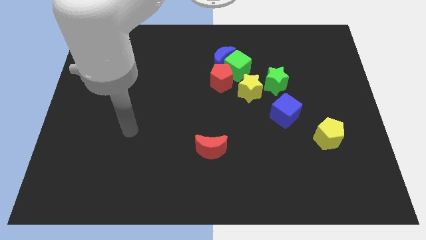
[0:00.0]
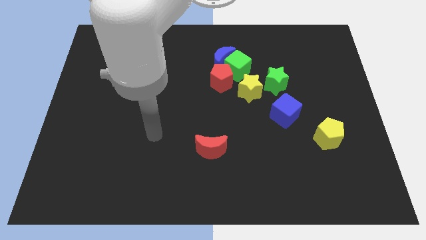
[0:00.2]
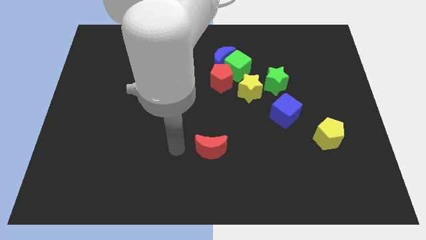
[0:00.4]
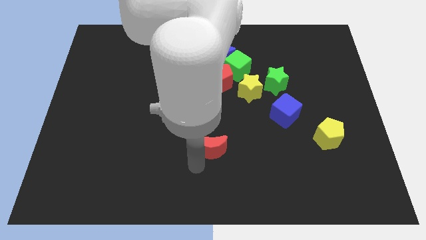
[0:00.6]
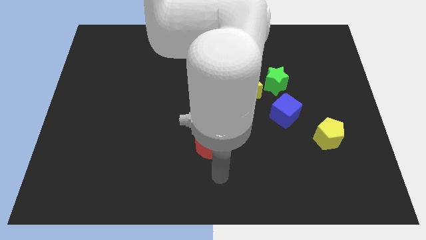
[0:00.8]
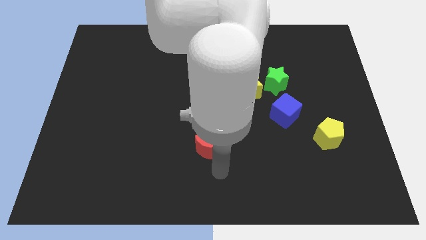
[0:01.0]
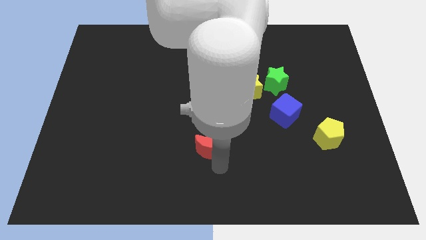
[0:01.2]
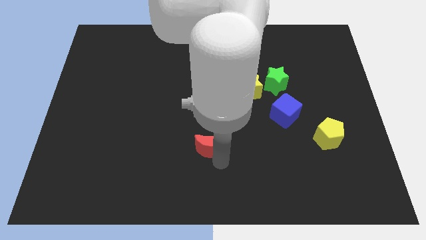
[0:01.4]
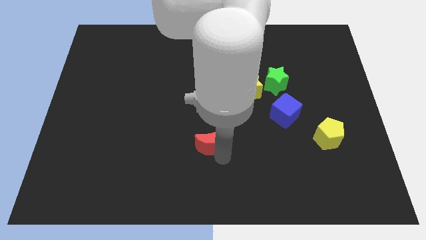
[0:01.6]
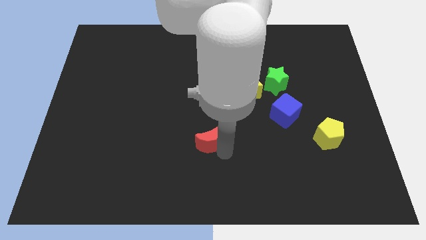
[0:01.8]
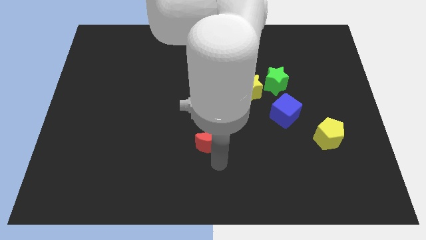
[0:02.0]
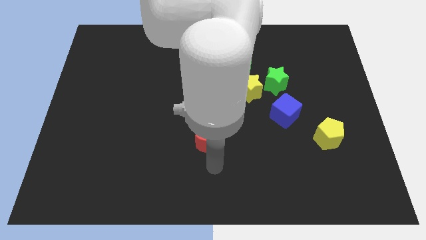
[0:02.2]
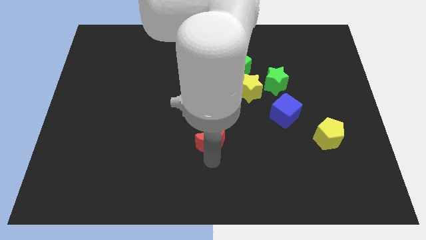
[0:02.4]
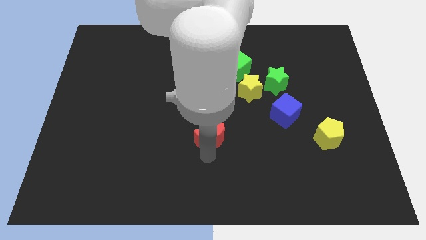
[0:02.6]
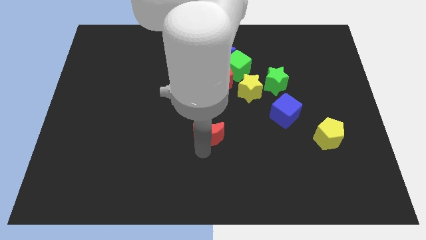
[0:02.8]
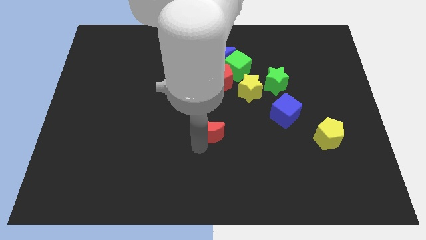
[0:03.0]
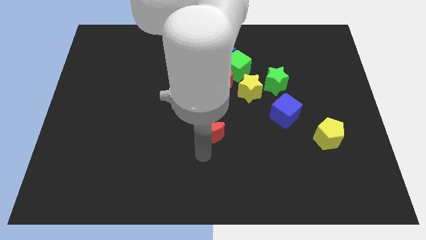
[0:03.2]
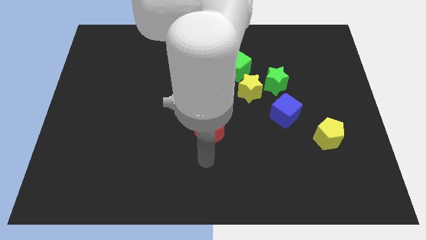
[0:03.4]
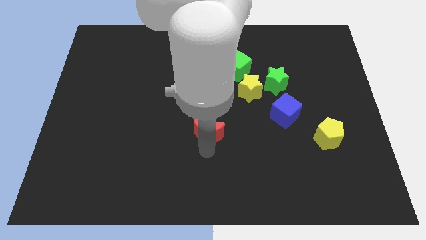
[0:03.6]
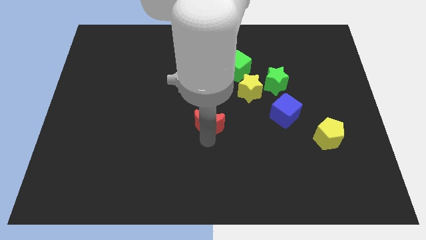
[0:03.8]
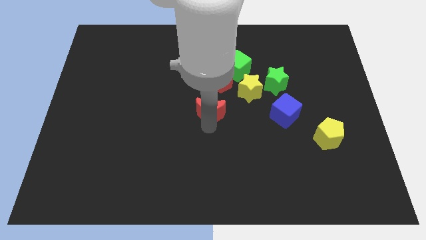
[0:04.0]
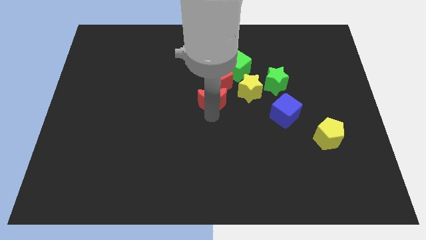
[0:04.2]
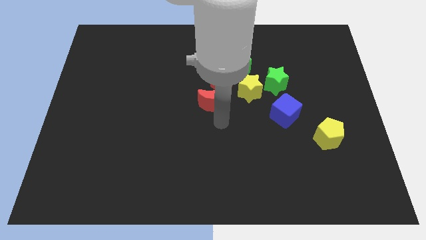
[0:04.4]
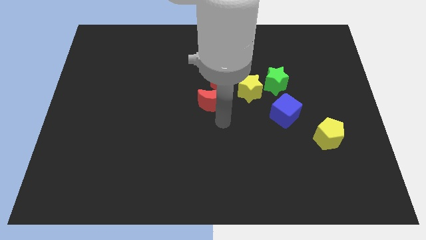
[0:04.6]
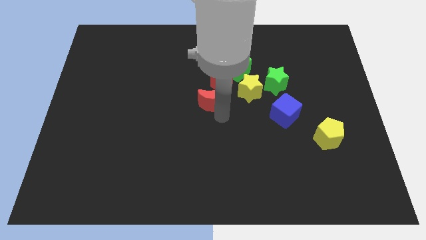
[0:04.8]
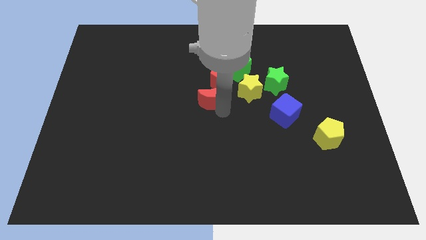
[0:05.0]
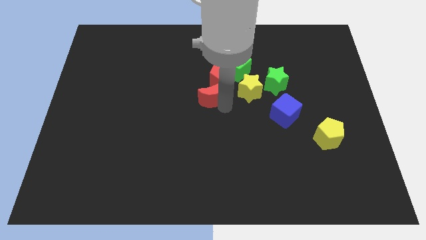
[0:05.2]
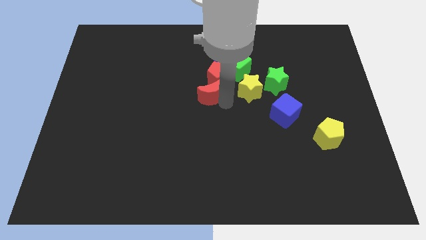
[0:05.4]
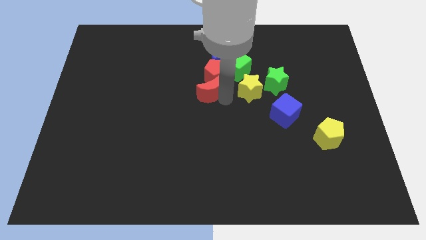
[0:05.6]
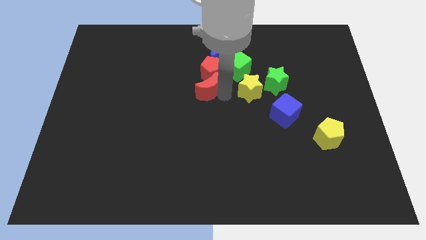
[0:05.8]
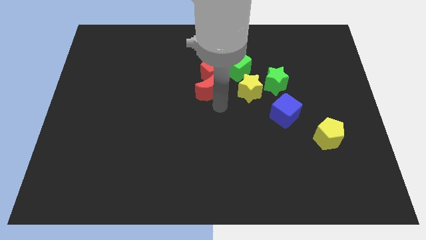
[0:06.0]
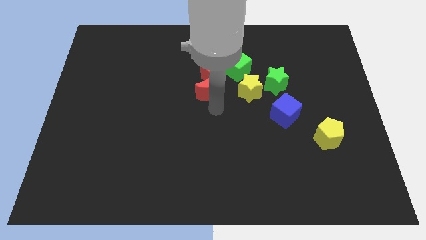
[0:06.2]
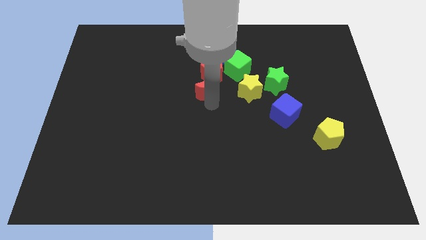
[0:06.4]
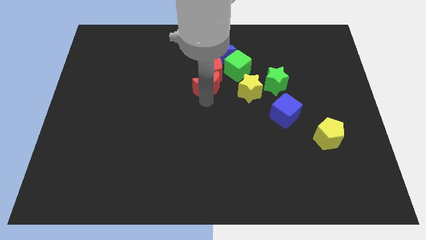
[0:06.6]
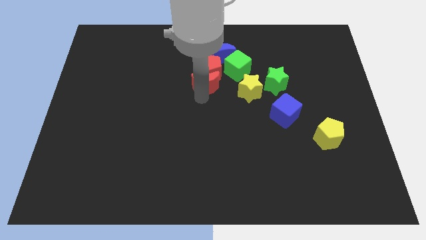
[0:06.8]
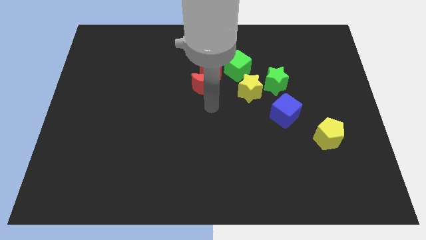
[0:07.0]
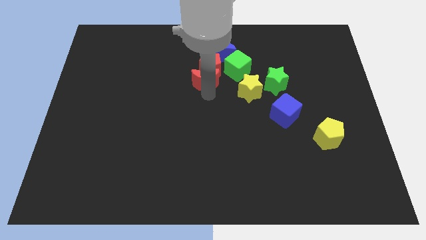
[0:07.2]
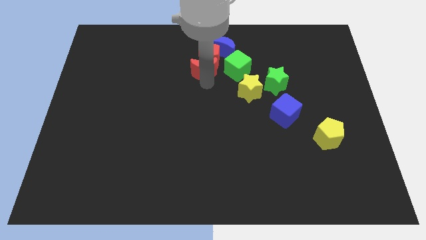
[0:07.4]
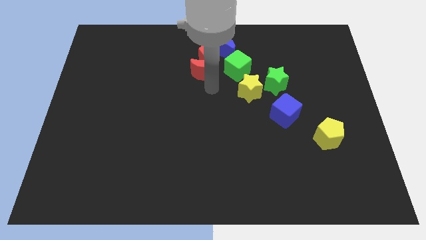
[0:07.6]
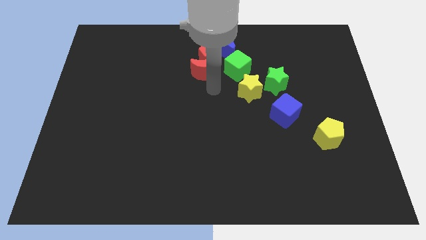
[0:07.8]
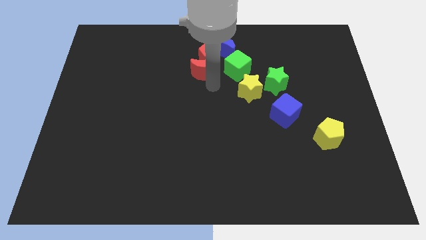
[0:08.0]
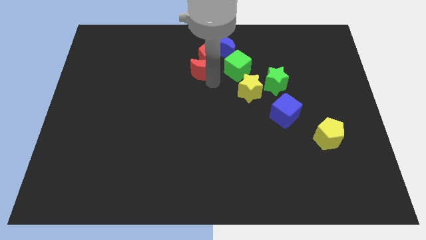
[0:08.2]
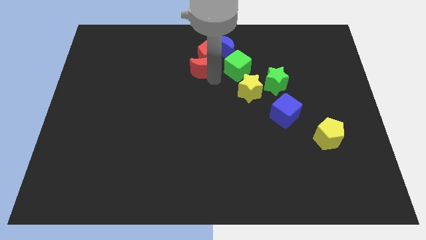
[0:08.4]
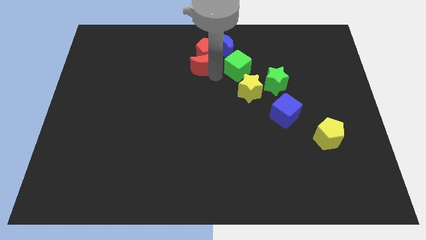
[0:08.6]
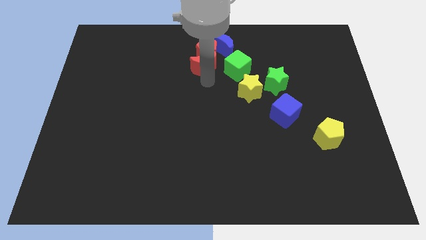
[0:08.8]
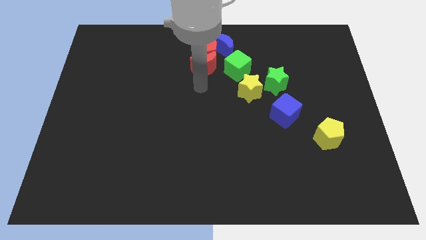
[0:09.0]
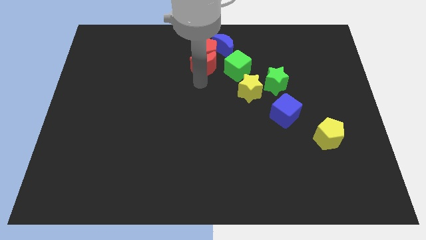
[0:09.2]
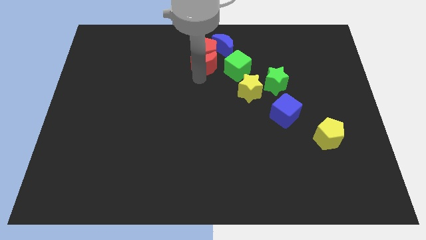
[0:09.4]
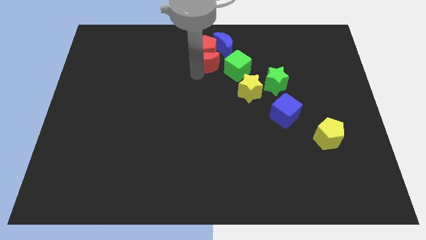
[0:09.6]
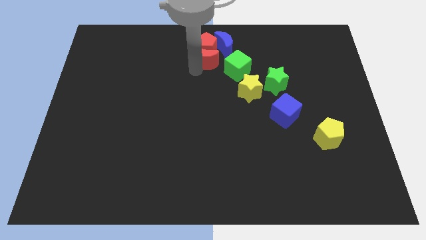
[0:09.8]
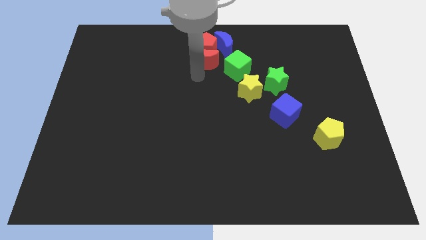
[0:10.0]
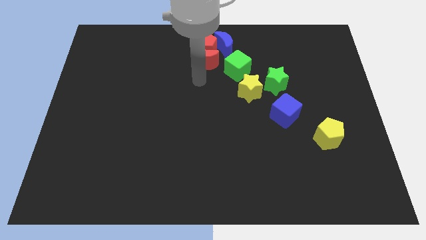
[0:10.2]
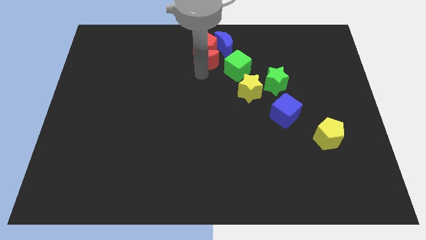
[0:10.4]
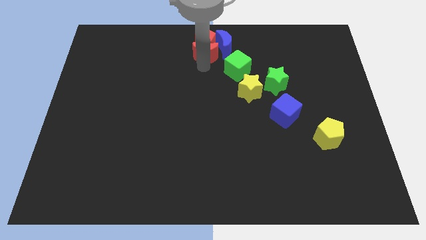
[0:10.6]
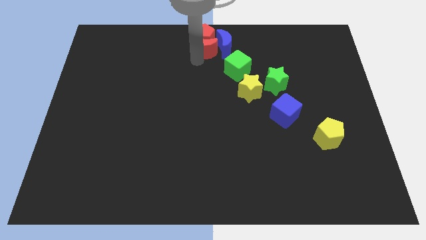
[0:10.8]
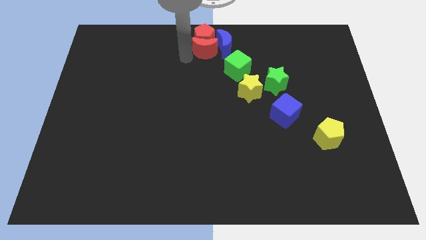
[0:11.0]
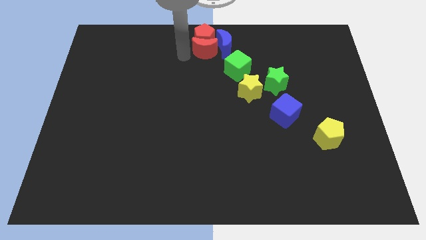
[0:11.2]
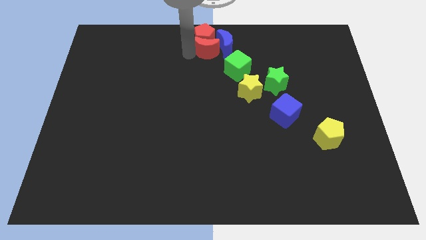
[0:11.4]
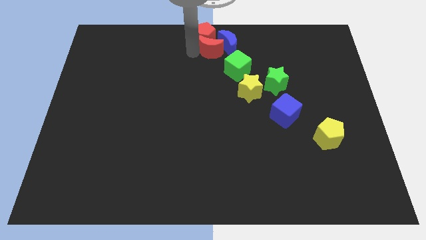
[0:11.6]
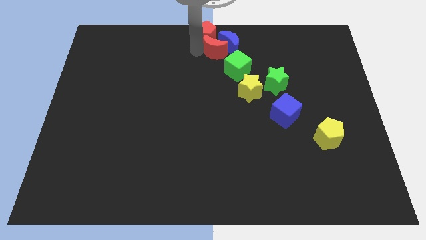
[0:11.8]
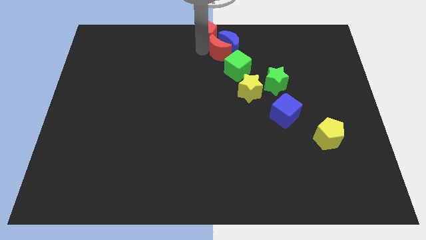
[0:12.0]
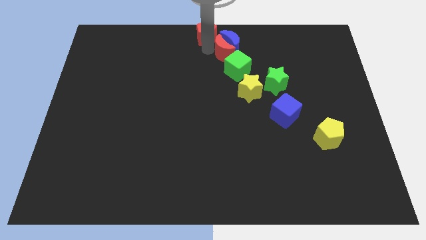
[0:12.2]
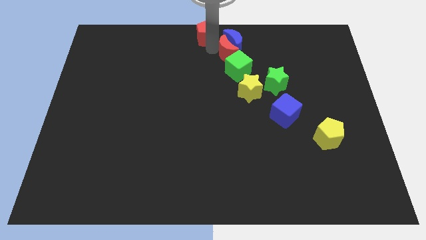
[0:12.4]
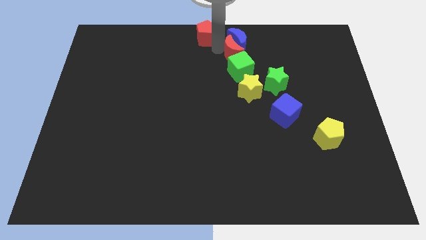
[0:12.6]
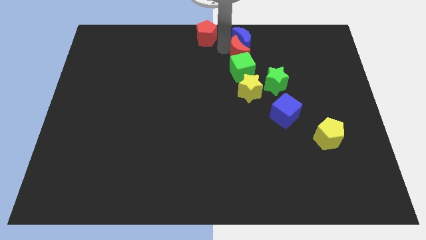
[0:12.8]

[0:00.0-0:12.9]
move the red moon to the top right of the green cube

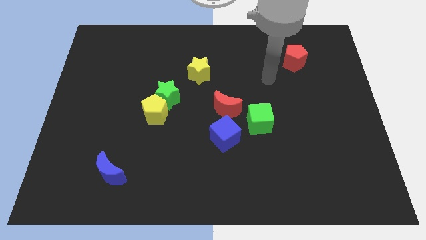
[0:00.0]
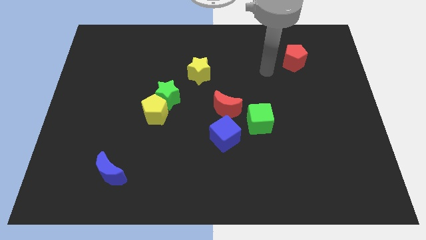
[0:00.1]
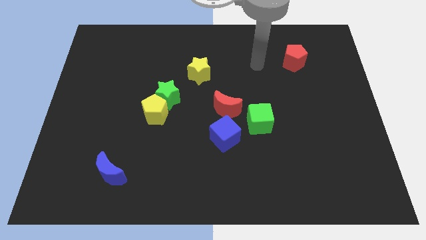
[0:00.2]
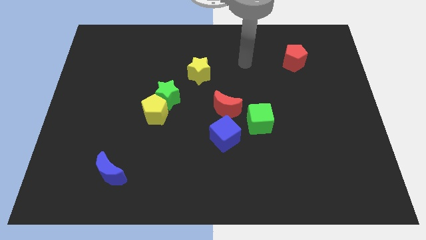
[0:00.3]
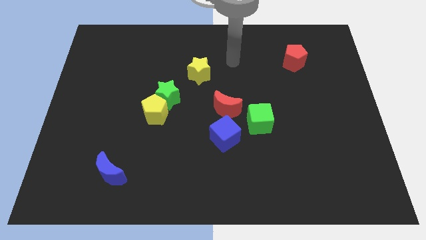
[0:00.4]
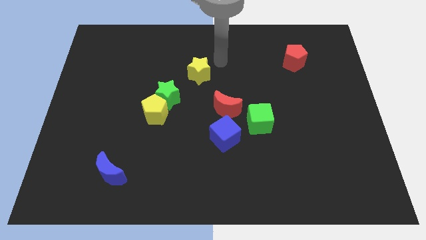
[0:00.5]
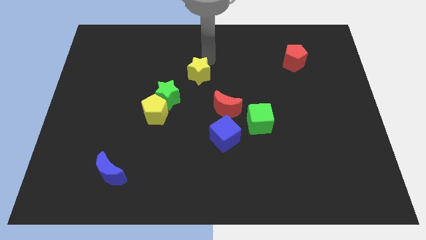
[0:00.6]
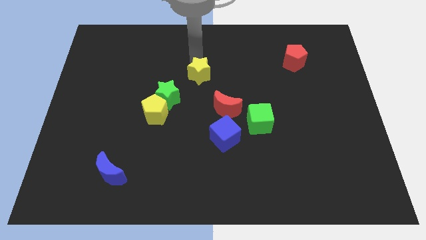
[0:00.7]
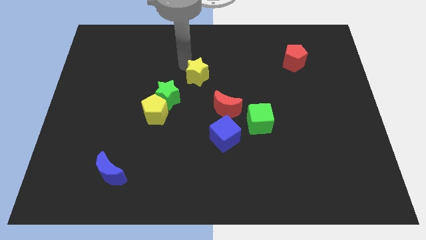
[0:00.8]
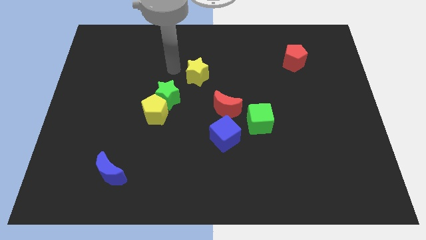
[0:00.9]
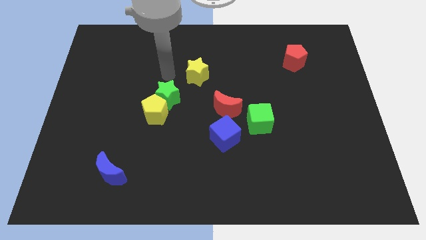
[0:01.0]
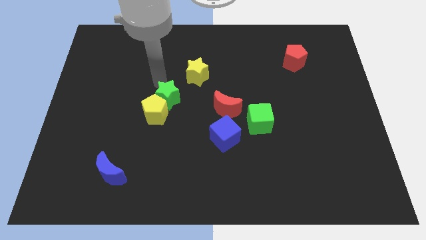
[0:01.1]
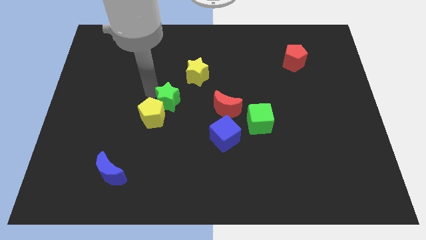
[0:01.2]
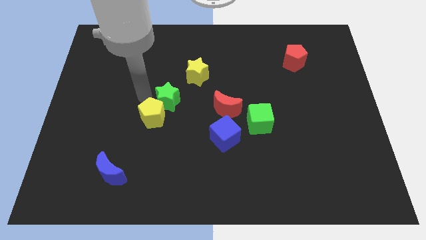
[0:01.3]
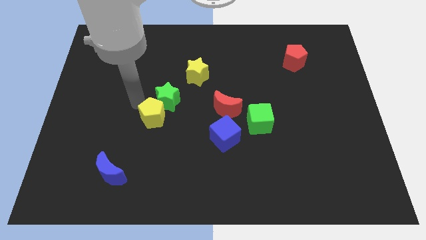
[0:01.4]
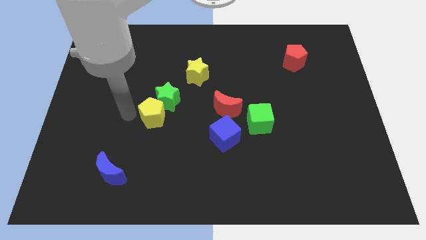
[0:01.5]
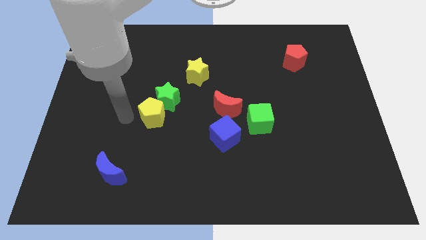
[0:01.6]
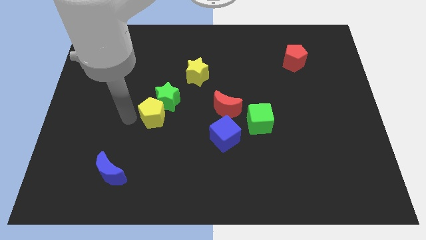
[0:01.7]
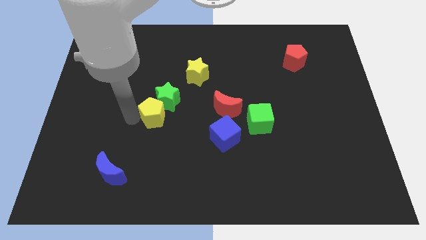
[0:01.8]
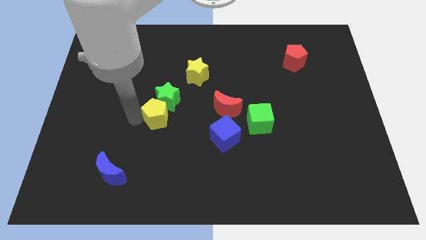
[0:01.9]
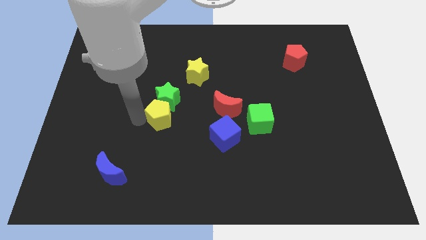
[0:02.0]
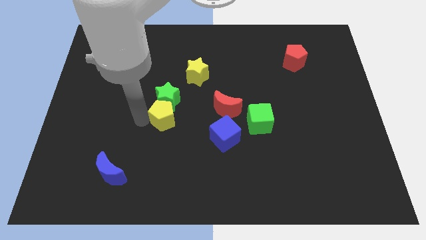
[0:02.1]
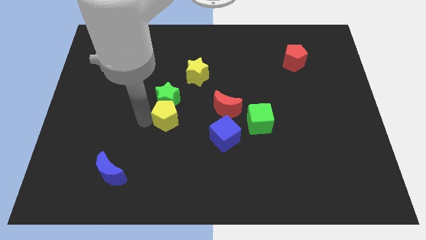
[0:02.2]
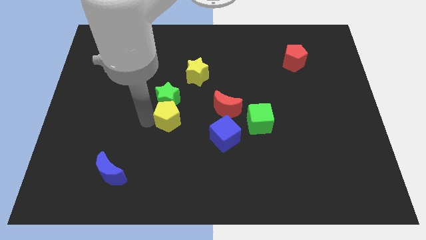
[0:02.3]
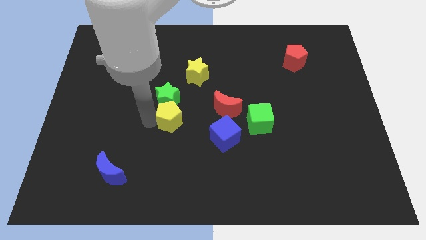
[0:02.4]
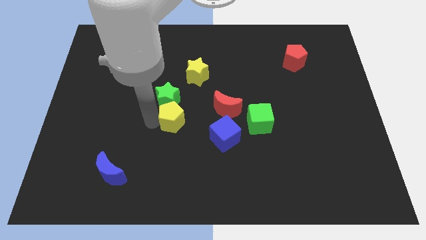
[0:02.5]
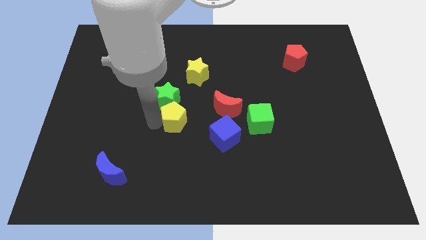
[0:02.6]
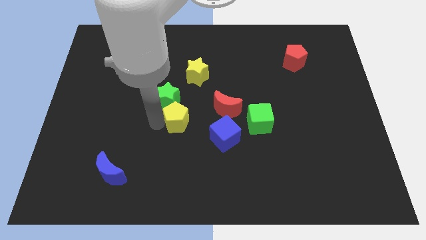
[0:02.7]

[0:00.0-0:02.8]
put the yellow pentagon to the bottom side of the yellow star
